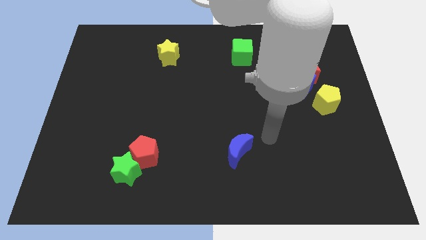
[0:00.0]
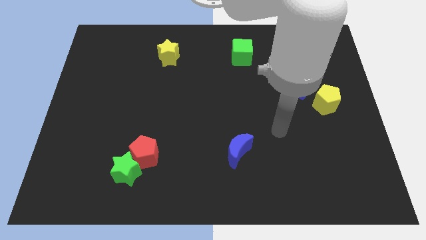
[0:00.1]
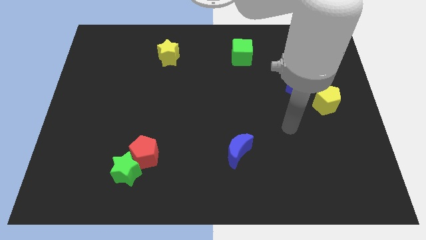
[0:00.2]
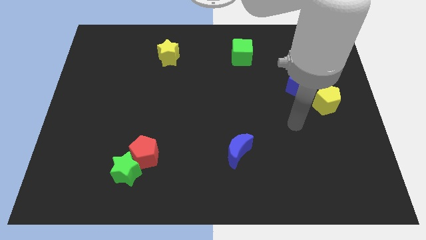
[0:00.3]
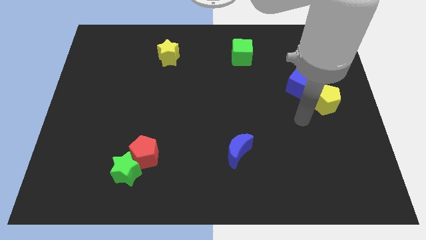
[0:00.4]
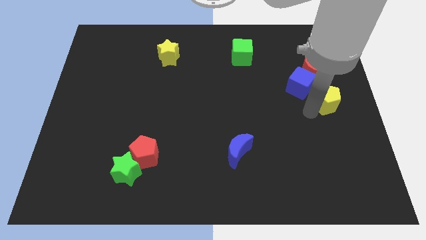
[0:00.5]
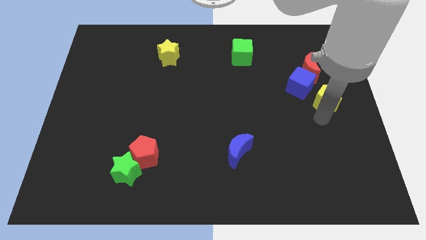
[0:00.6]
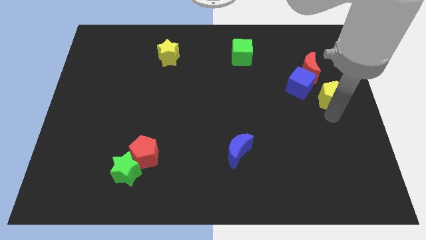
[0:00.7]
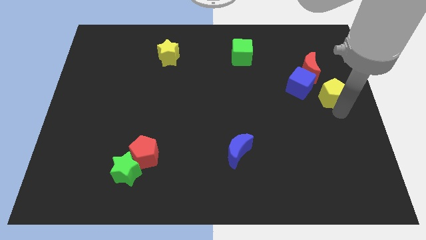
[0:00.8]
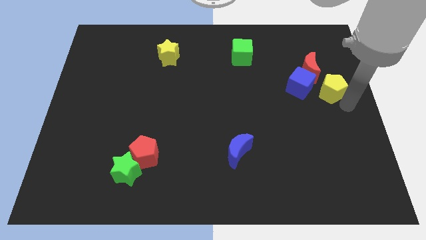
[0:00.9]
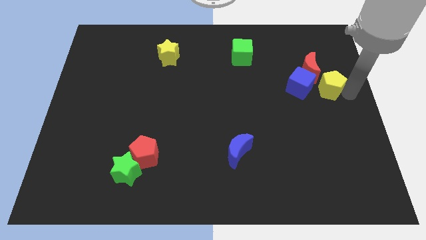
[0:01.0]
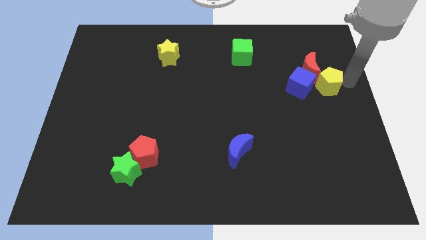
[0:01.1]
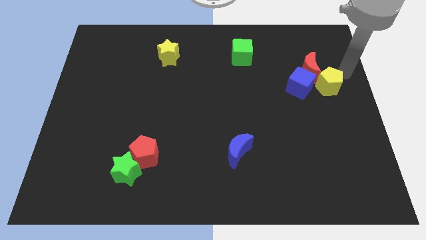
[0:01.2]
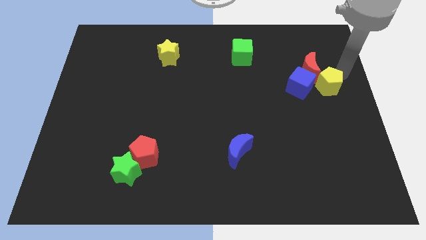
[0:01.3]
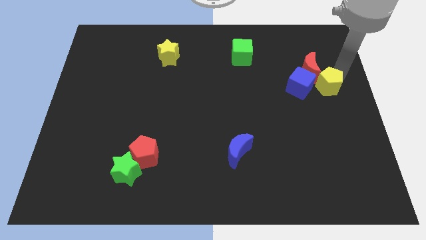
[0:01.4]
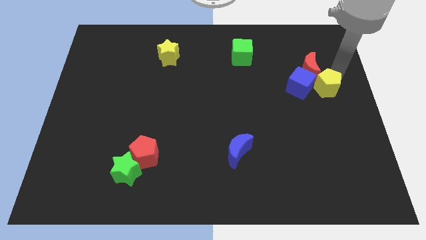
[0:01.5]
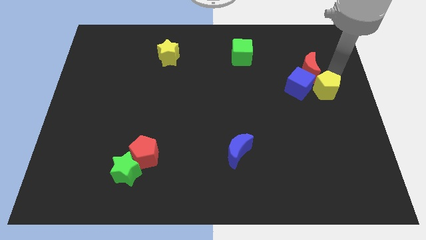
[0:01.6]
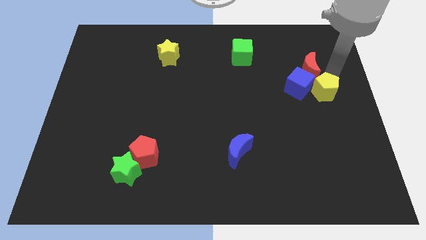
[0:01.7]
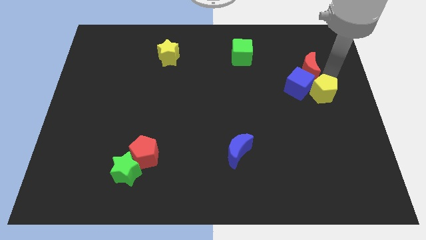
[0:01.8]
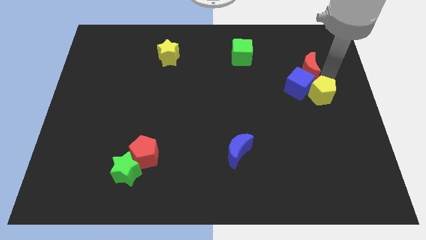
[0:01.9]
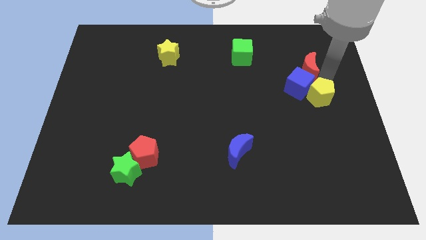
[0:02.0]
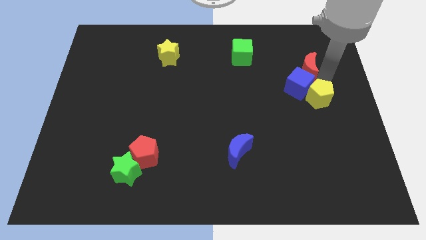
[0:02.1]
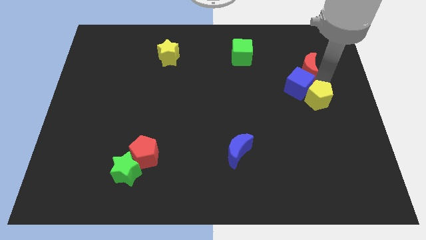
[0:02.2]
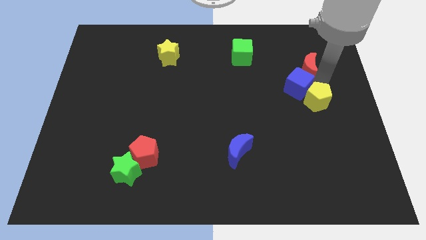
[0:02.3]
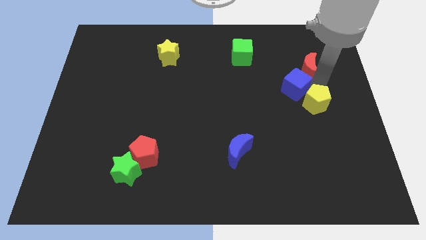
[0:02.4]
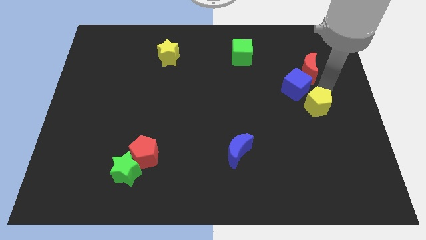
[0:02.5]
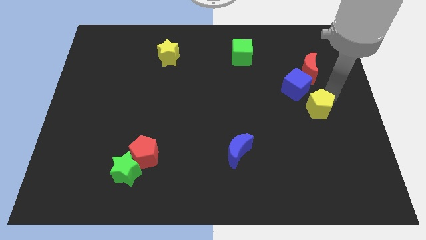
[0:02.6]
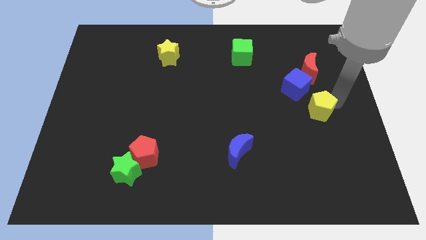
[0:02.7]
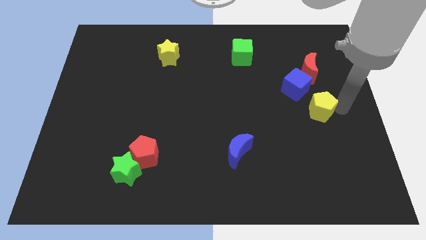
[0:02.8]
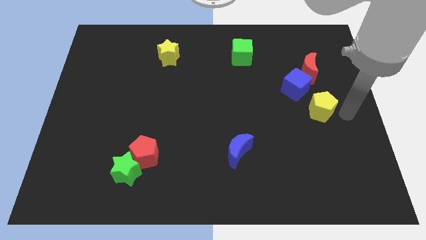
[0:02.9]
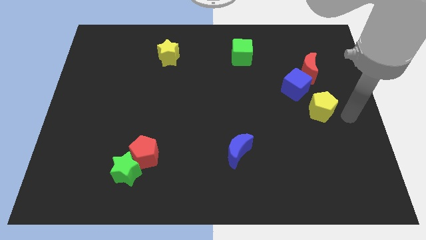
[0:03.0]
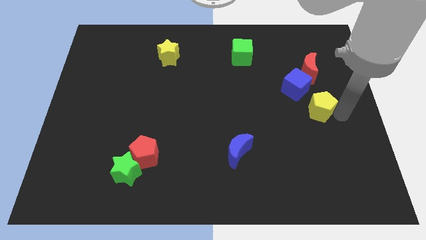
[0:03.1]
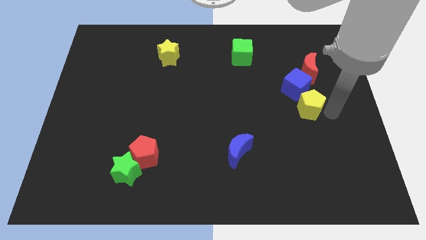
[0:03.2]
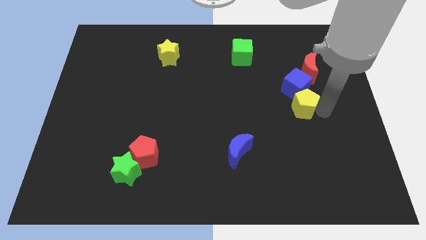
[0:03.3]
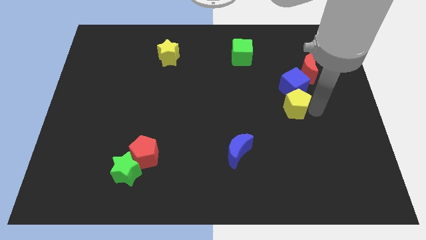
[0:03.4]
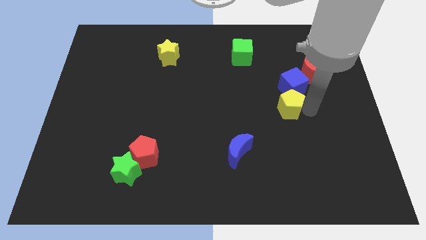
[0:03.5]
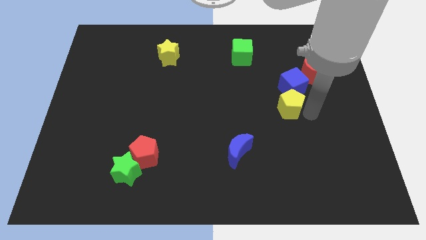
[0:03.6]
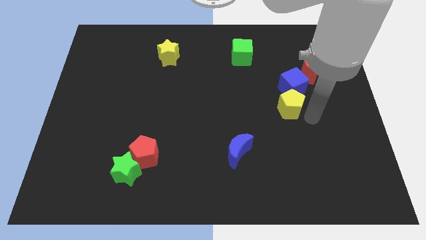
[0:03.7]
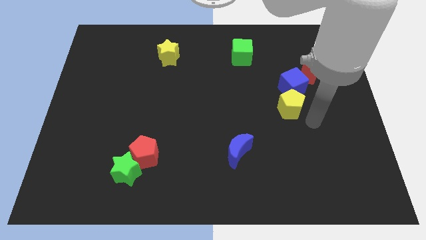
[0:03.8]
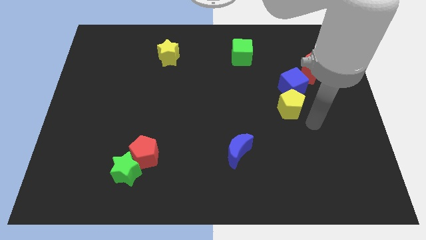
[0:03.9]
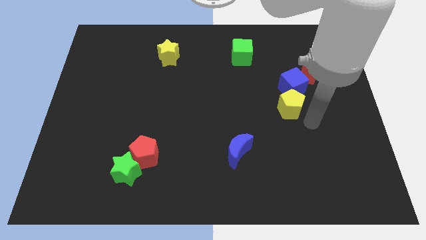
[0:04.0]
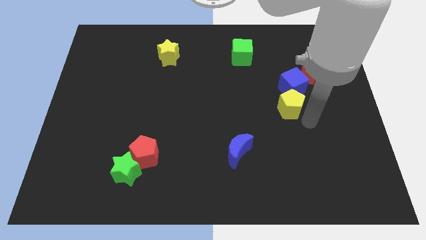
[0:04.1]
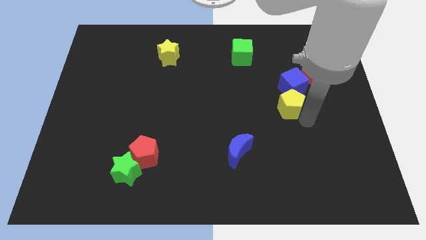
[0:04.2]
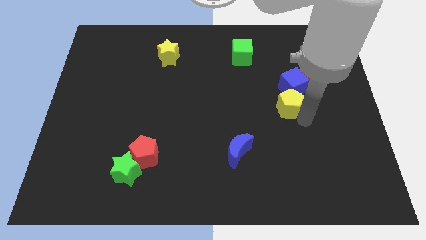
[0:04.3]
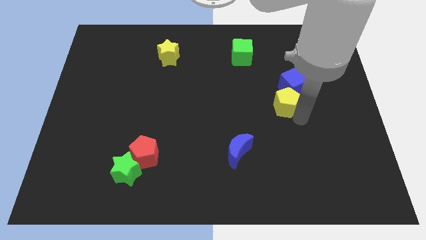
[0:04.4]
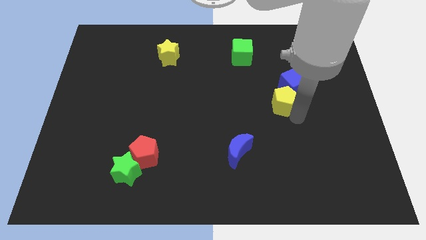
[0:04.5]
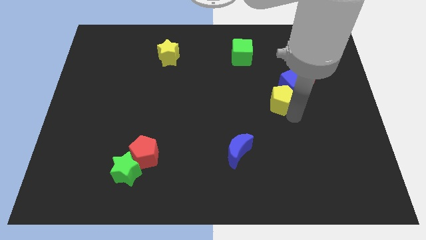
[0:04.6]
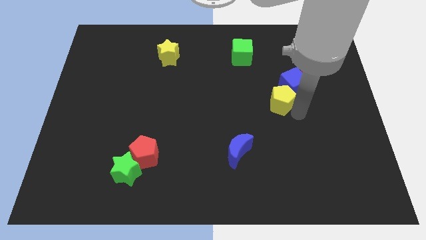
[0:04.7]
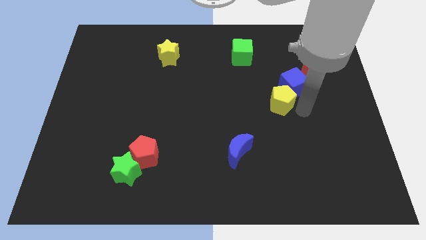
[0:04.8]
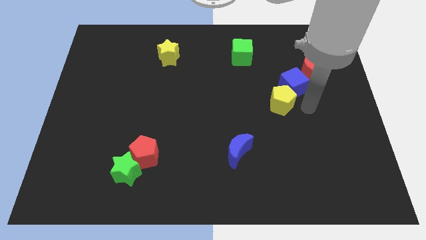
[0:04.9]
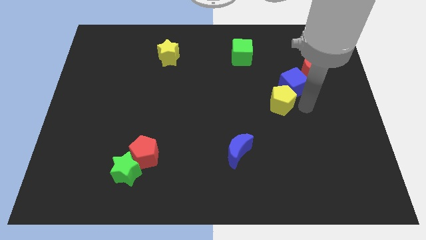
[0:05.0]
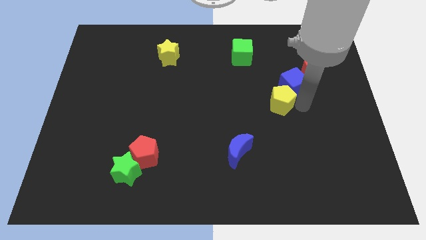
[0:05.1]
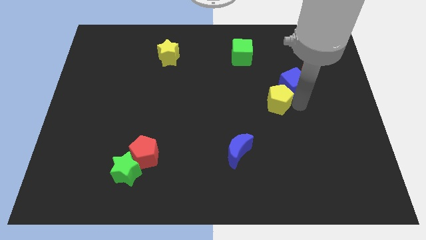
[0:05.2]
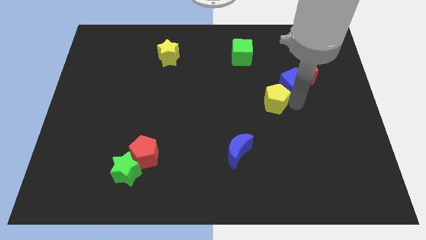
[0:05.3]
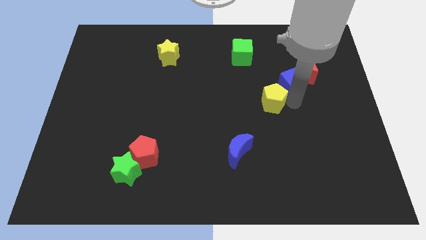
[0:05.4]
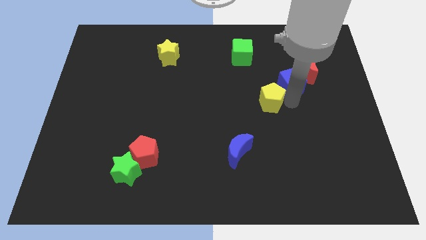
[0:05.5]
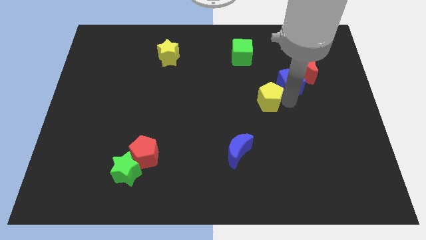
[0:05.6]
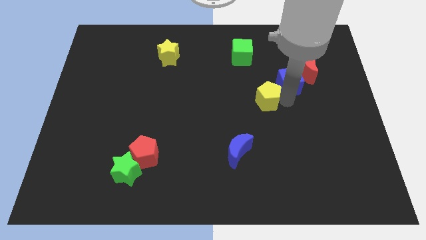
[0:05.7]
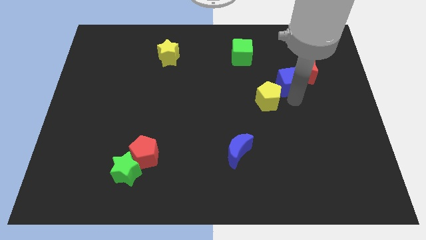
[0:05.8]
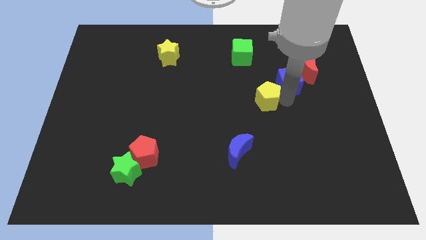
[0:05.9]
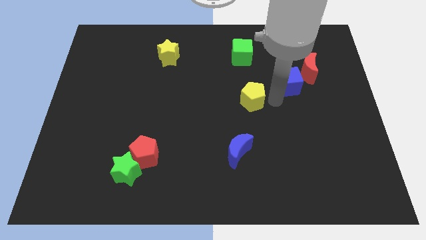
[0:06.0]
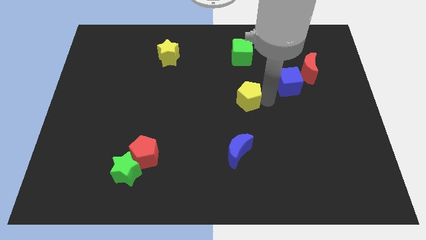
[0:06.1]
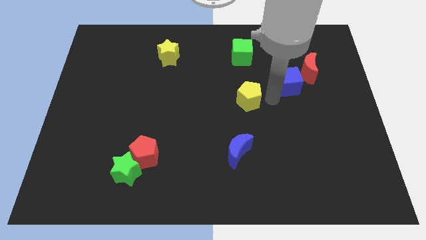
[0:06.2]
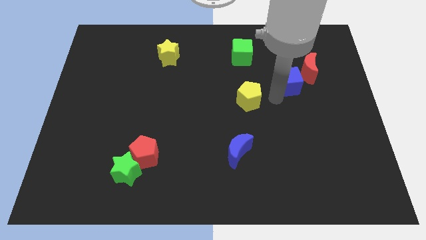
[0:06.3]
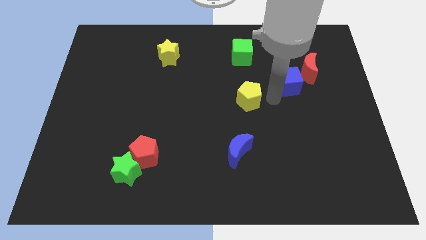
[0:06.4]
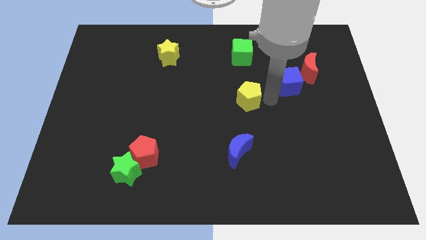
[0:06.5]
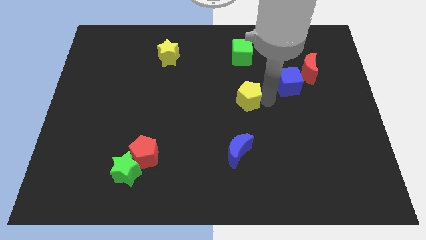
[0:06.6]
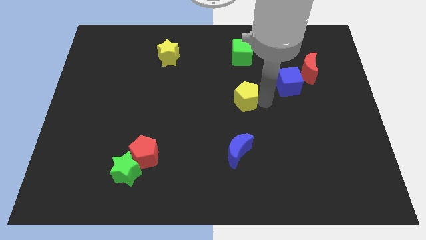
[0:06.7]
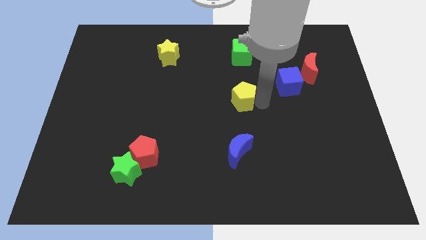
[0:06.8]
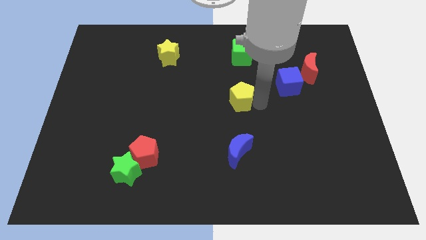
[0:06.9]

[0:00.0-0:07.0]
move the yellow pentagon left

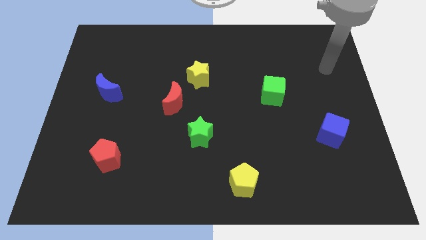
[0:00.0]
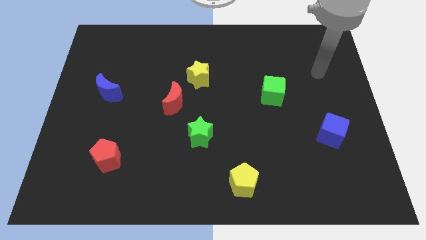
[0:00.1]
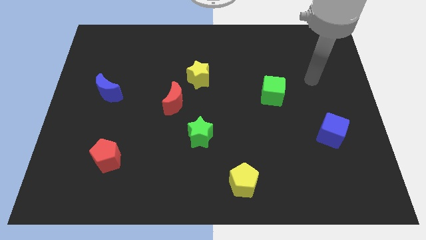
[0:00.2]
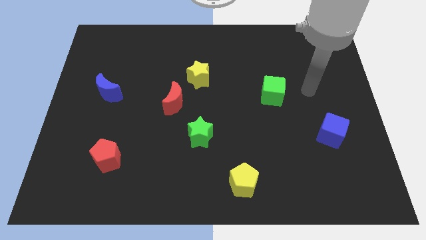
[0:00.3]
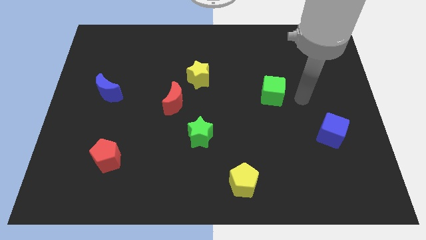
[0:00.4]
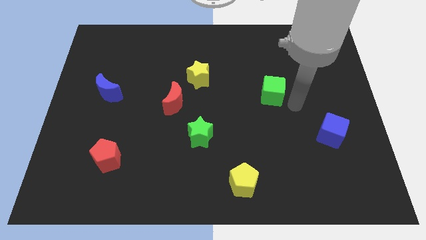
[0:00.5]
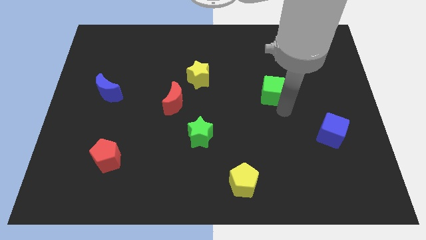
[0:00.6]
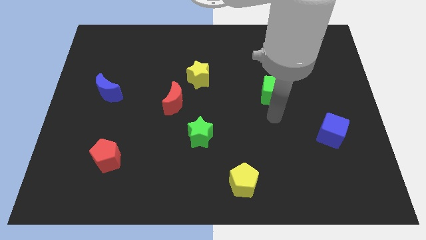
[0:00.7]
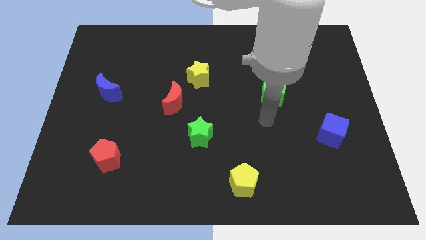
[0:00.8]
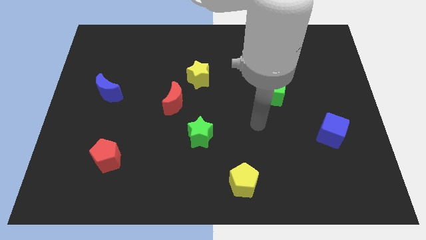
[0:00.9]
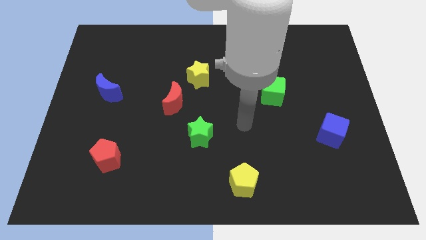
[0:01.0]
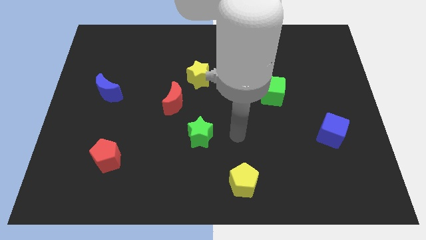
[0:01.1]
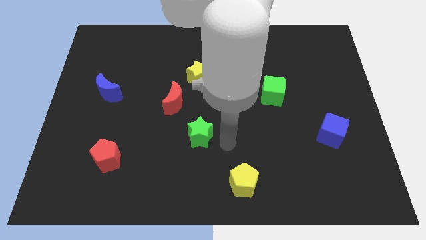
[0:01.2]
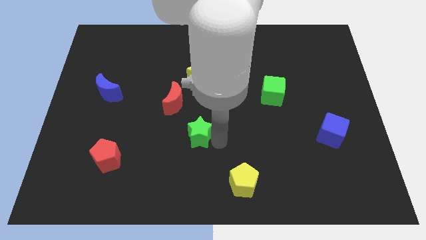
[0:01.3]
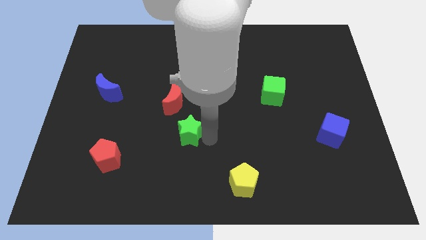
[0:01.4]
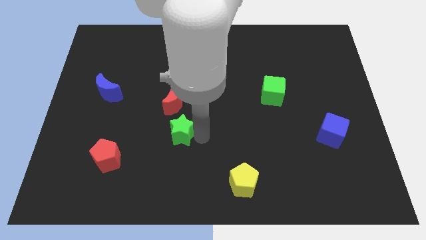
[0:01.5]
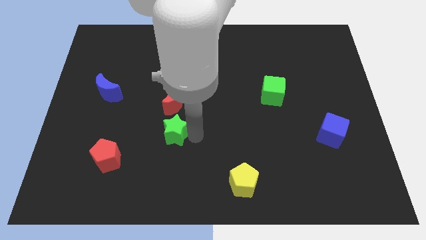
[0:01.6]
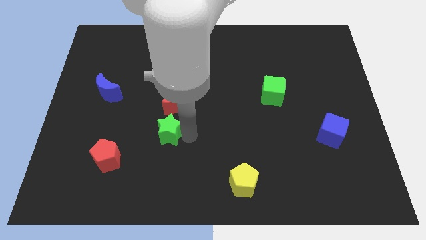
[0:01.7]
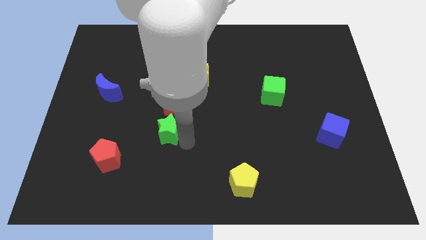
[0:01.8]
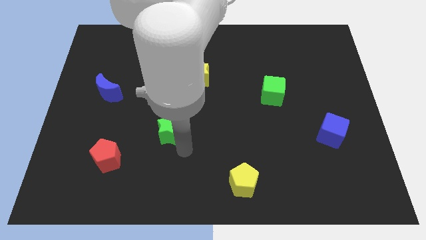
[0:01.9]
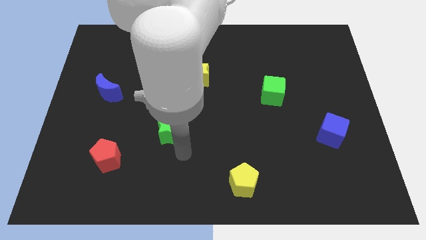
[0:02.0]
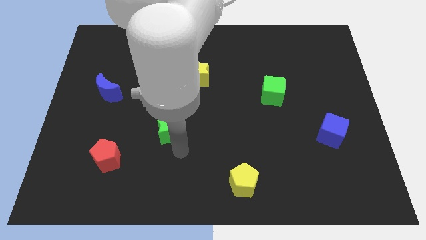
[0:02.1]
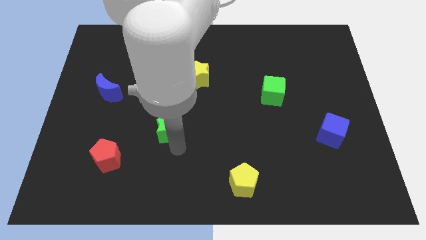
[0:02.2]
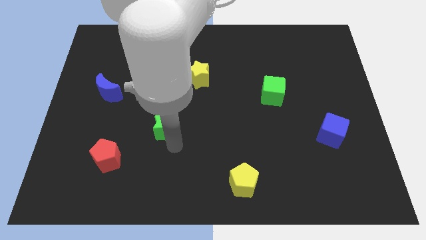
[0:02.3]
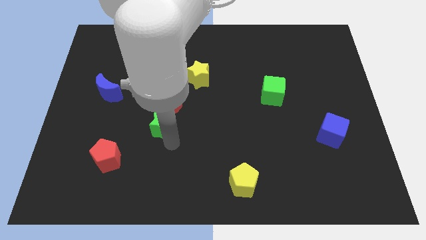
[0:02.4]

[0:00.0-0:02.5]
move the green star somewhat up and then to the left
